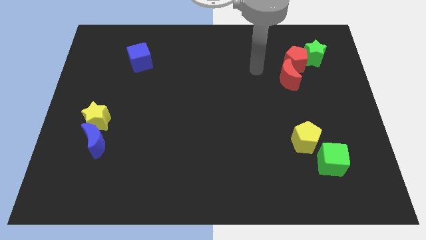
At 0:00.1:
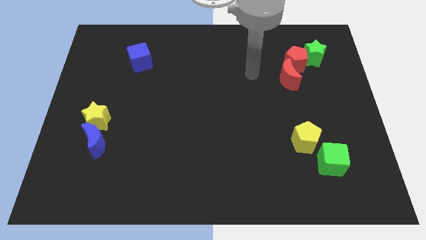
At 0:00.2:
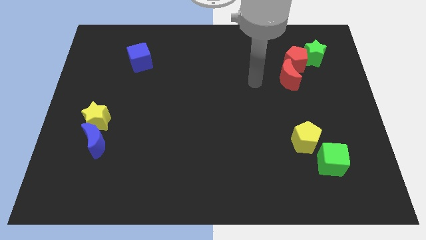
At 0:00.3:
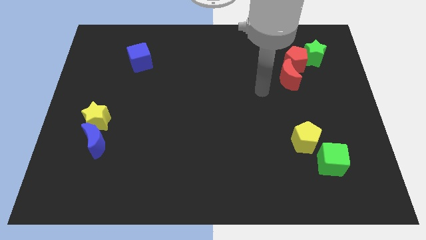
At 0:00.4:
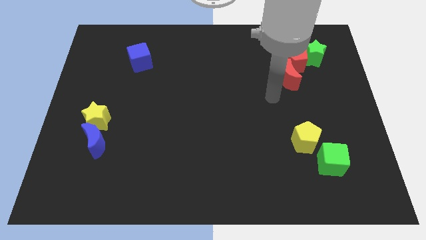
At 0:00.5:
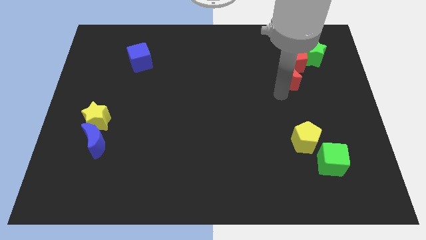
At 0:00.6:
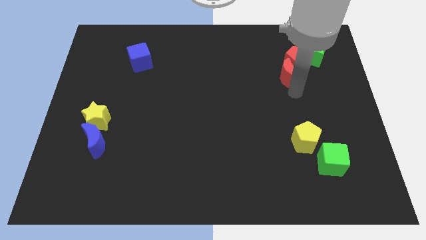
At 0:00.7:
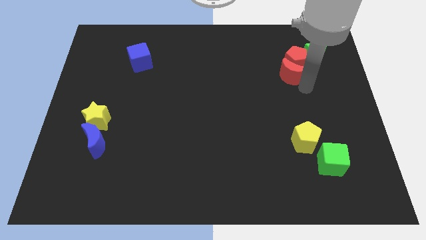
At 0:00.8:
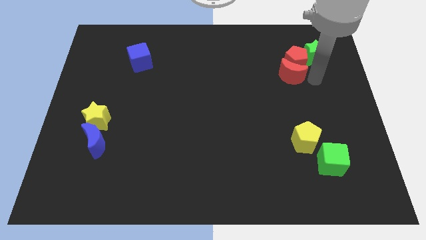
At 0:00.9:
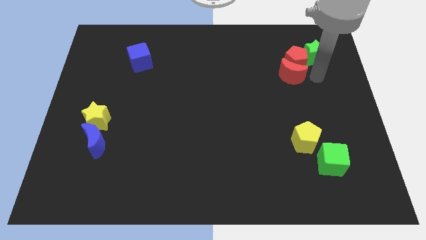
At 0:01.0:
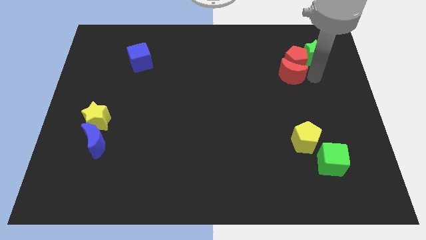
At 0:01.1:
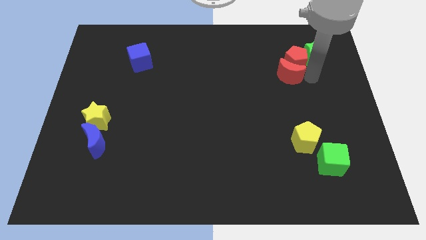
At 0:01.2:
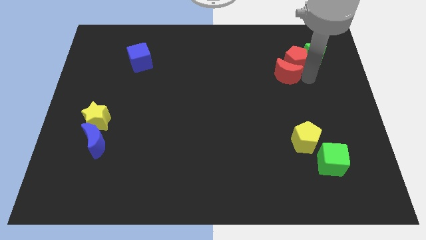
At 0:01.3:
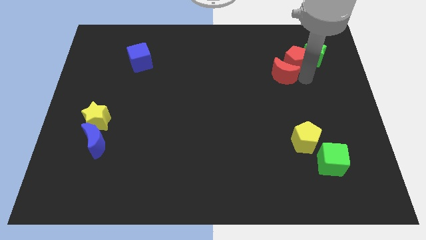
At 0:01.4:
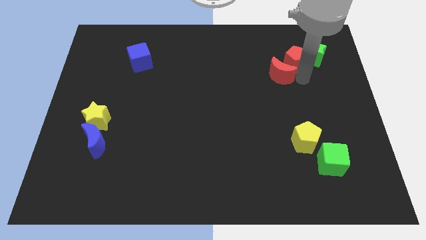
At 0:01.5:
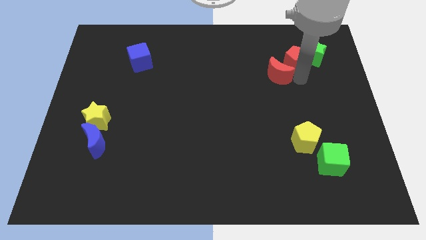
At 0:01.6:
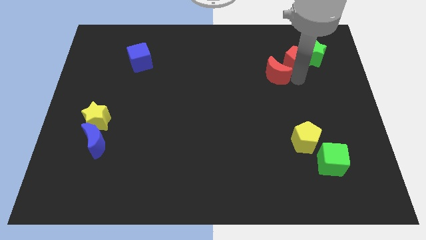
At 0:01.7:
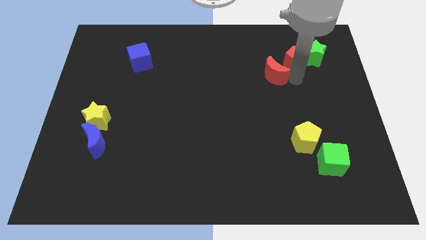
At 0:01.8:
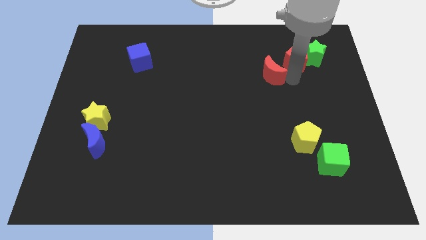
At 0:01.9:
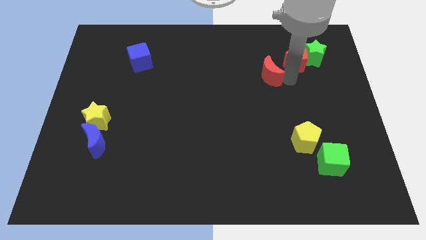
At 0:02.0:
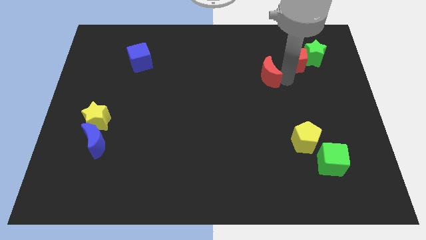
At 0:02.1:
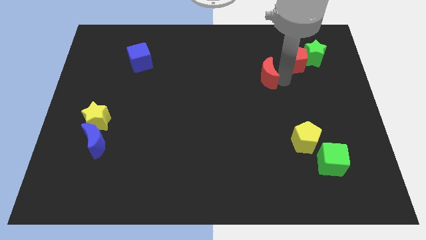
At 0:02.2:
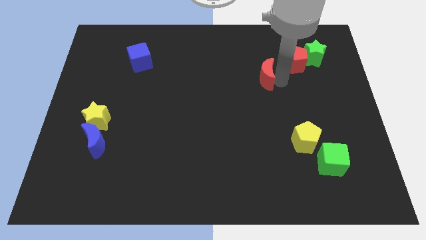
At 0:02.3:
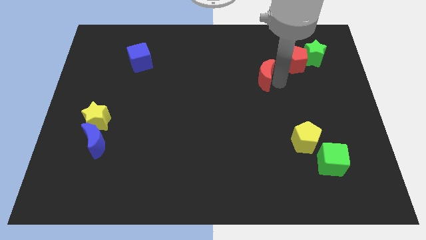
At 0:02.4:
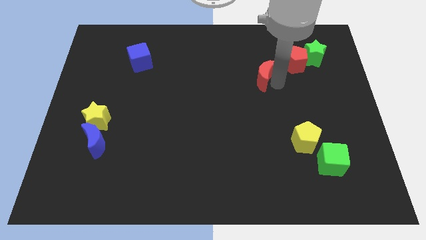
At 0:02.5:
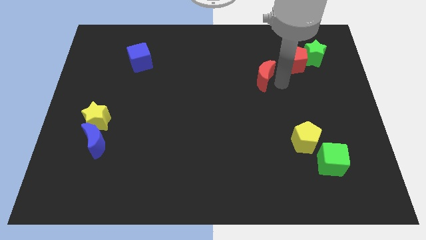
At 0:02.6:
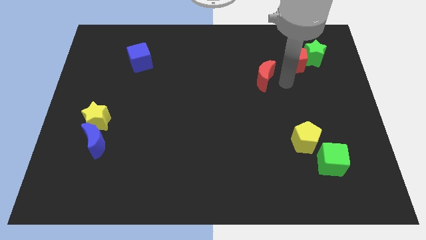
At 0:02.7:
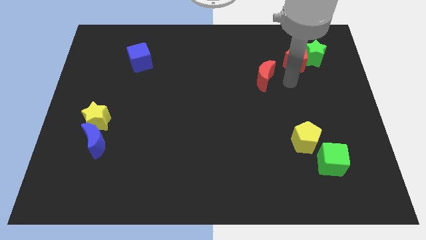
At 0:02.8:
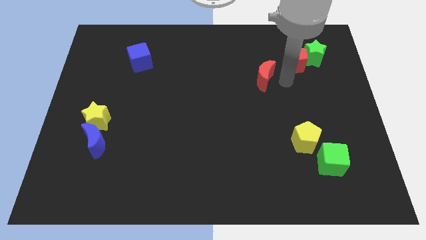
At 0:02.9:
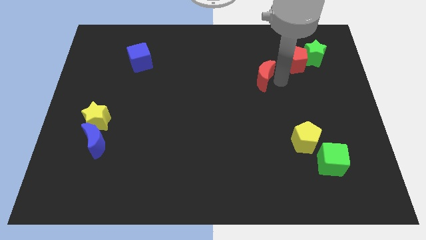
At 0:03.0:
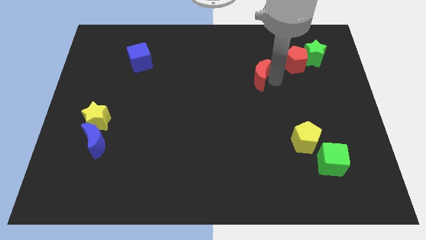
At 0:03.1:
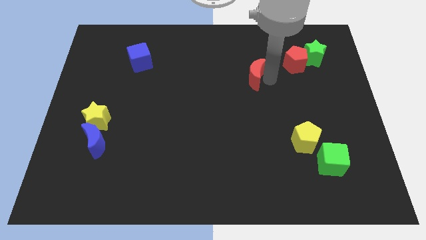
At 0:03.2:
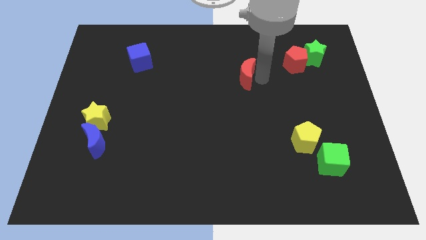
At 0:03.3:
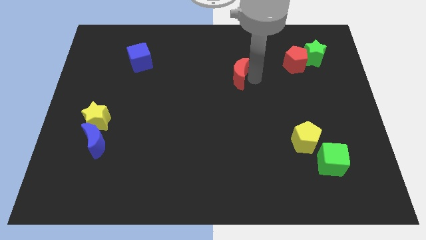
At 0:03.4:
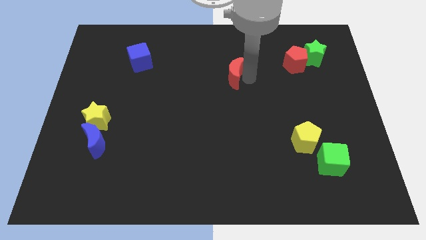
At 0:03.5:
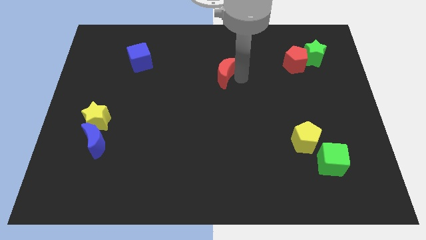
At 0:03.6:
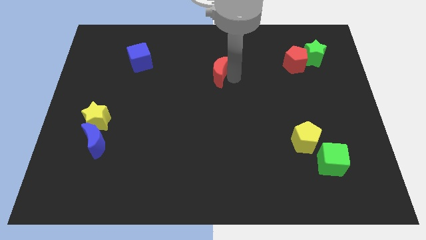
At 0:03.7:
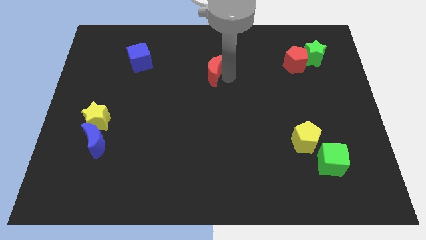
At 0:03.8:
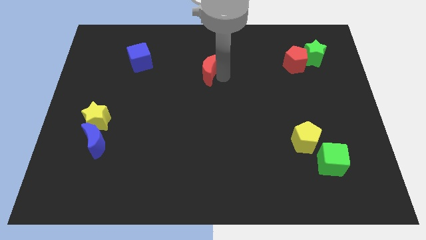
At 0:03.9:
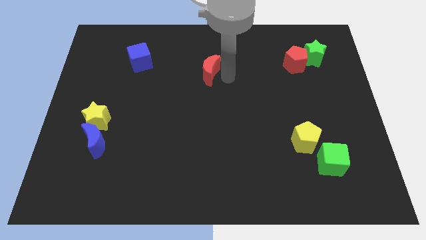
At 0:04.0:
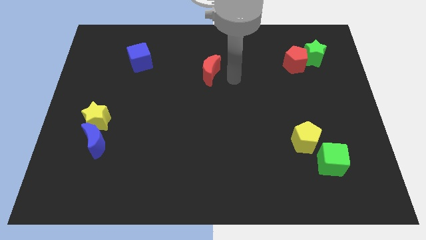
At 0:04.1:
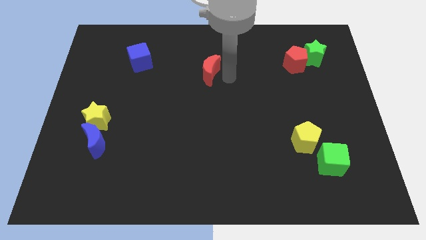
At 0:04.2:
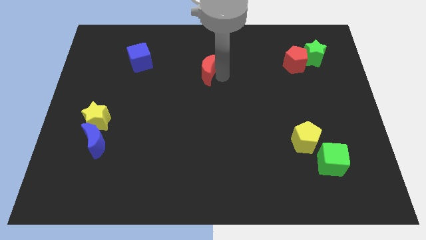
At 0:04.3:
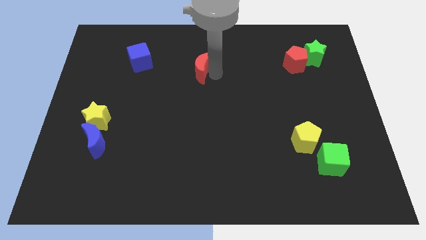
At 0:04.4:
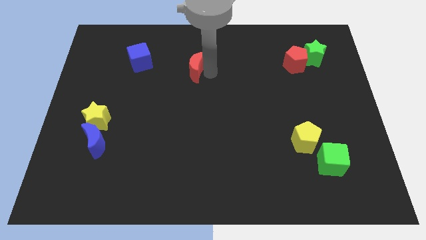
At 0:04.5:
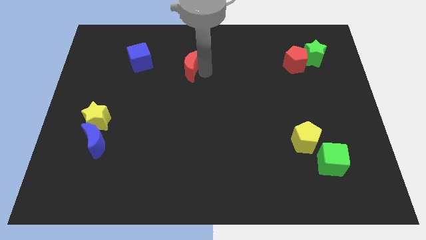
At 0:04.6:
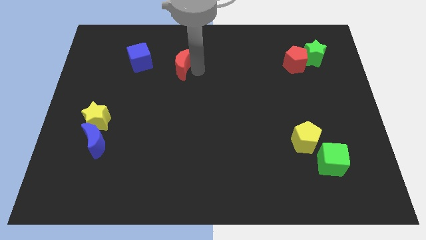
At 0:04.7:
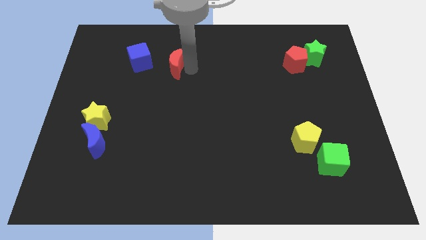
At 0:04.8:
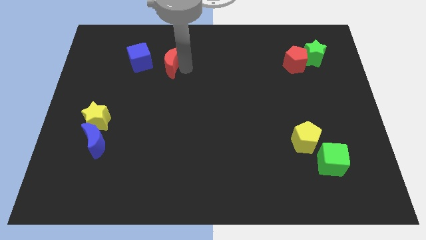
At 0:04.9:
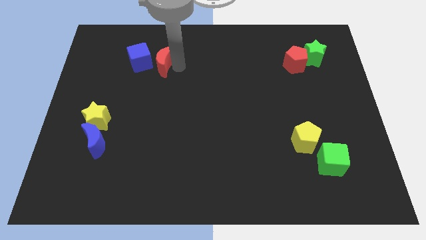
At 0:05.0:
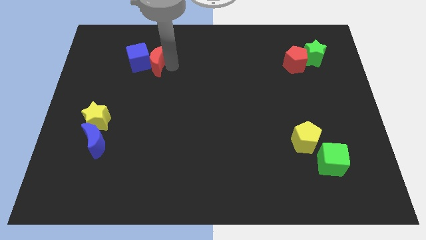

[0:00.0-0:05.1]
slide the red moon towards the blue cube

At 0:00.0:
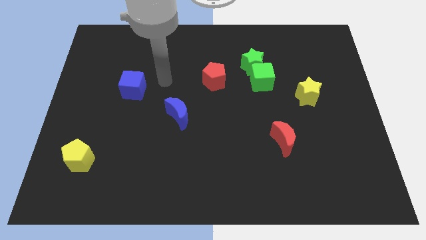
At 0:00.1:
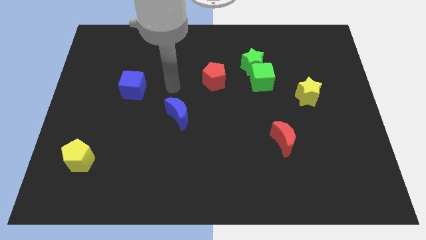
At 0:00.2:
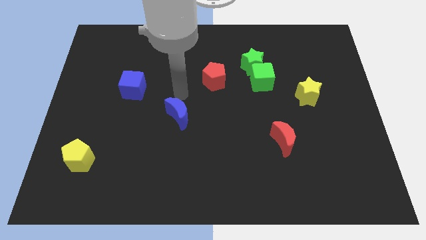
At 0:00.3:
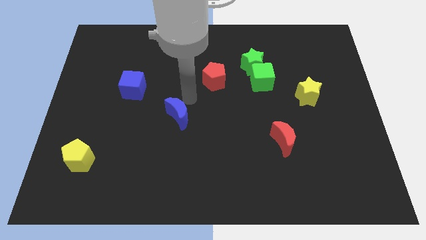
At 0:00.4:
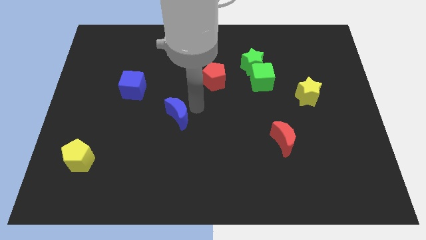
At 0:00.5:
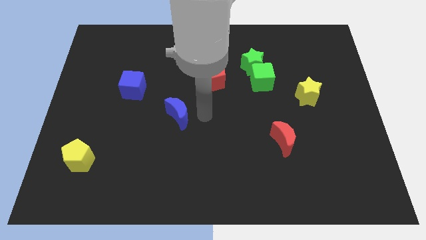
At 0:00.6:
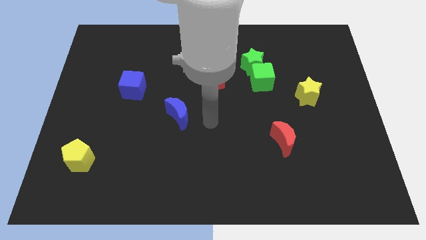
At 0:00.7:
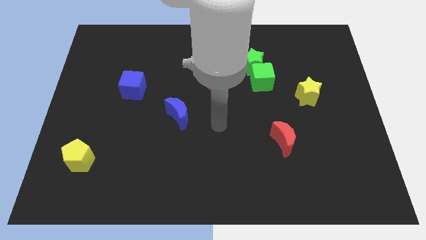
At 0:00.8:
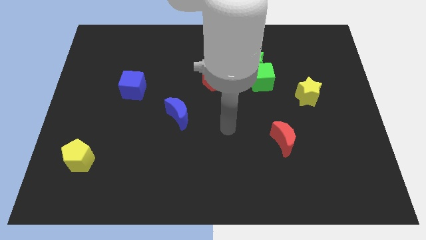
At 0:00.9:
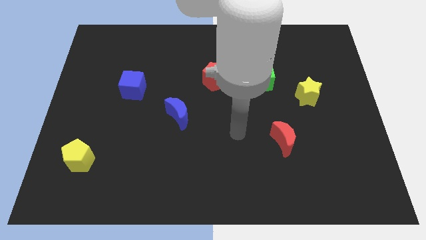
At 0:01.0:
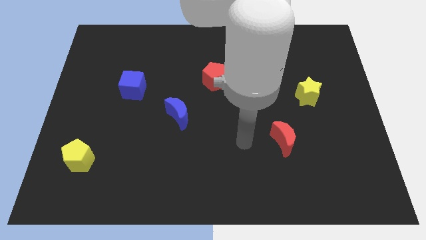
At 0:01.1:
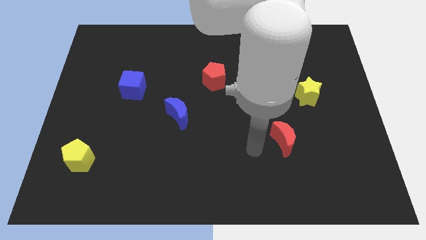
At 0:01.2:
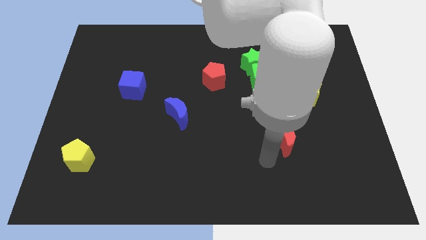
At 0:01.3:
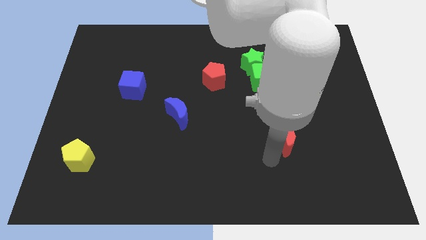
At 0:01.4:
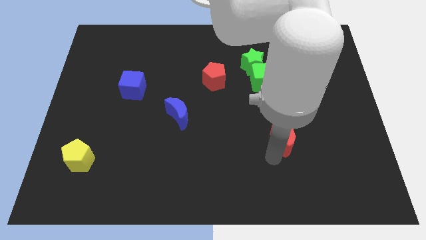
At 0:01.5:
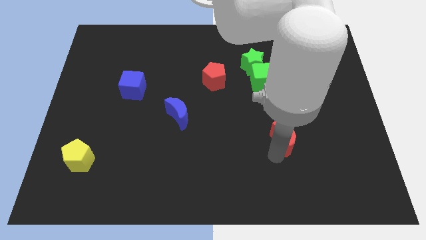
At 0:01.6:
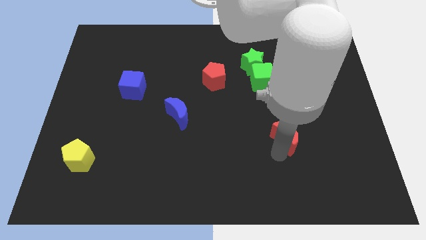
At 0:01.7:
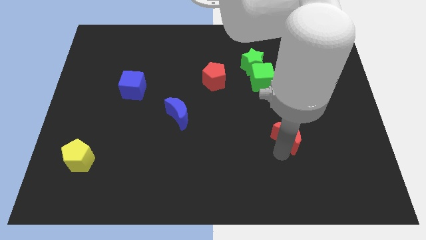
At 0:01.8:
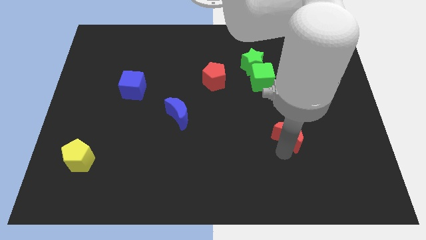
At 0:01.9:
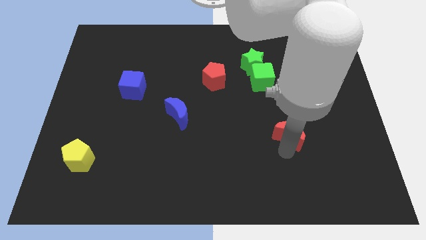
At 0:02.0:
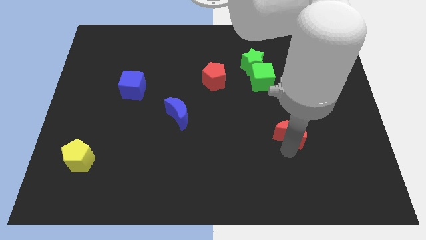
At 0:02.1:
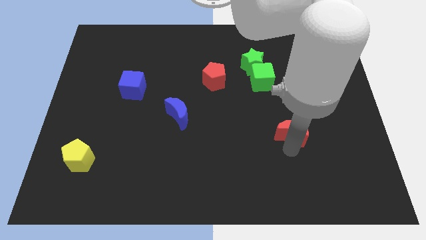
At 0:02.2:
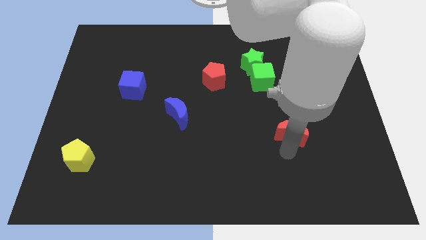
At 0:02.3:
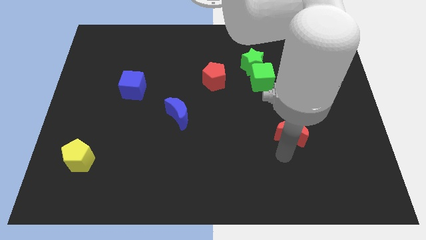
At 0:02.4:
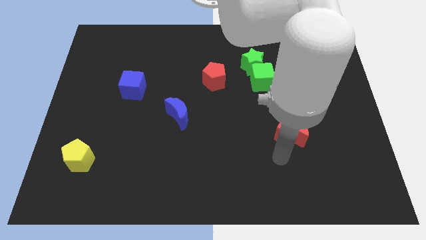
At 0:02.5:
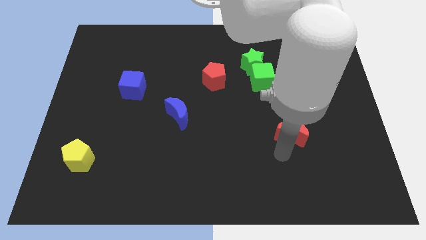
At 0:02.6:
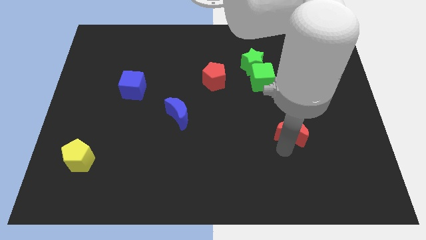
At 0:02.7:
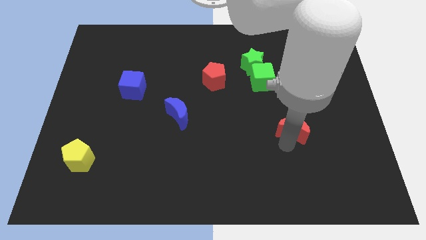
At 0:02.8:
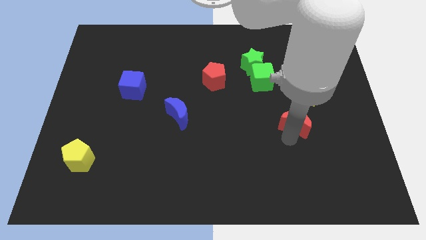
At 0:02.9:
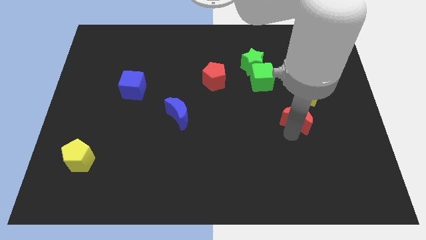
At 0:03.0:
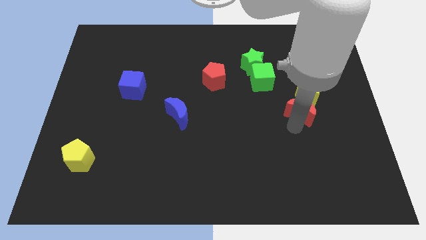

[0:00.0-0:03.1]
slide the red moon towards the yellow star
